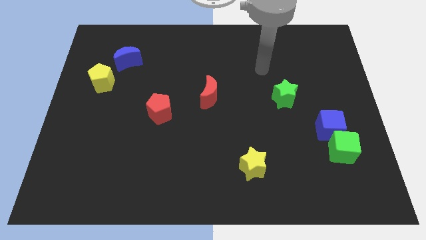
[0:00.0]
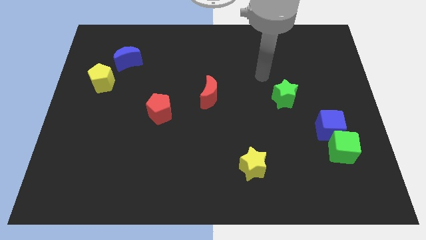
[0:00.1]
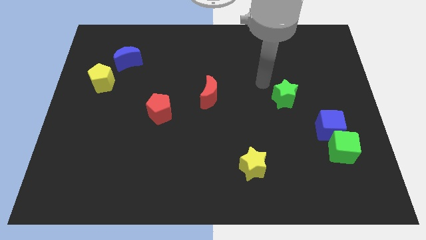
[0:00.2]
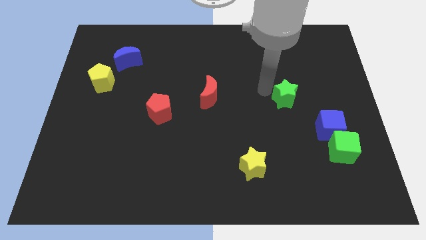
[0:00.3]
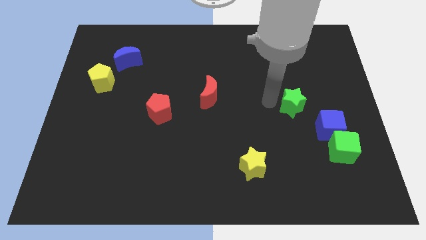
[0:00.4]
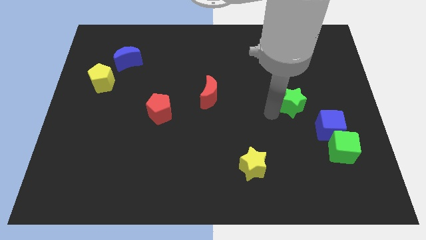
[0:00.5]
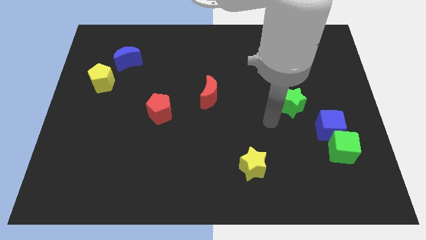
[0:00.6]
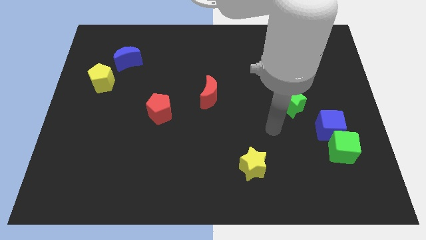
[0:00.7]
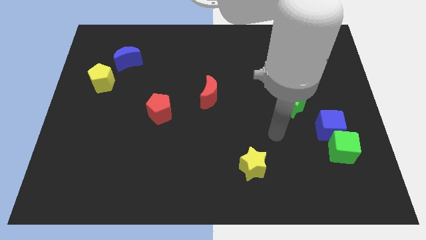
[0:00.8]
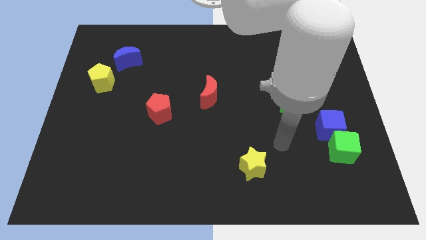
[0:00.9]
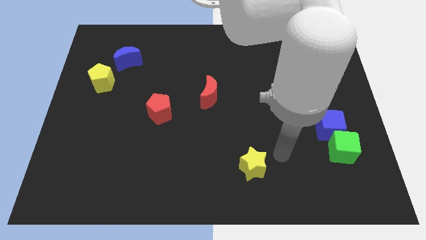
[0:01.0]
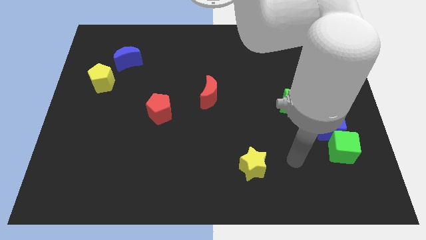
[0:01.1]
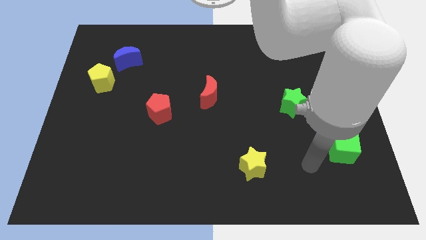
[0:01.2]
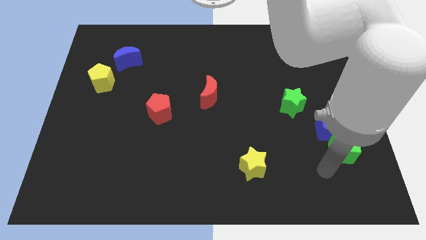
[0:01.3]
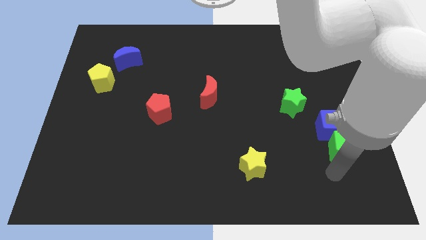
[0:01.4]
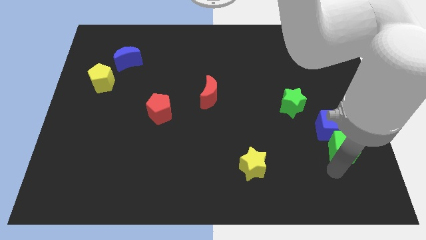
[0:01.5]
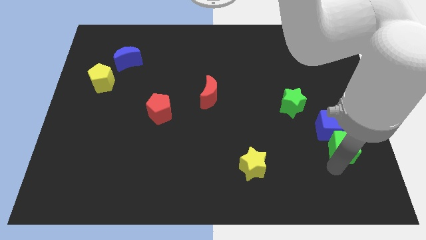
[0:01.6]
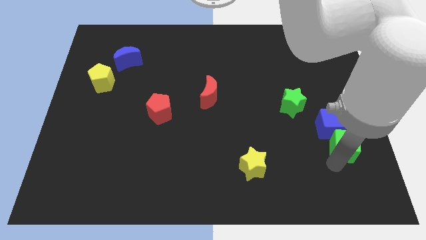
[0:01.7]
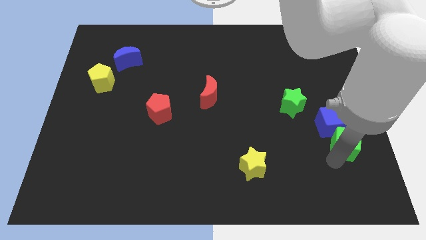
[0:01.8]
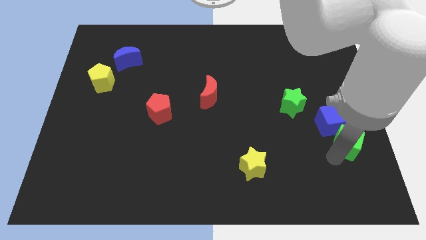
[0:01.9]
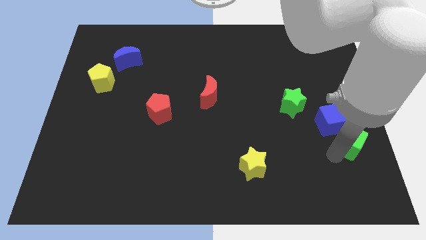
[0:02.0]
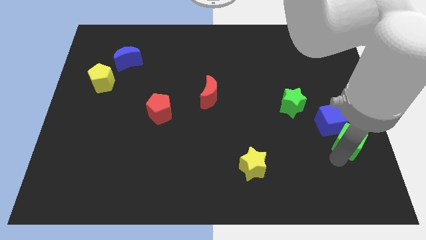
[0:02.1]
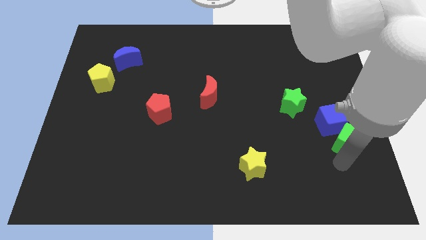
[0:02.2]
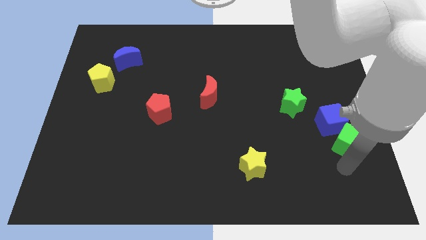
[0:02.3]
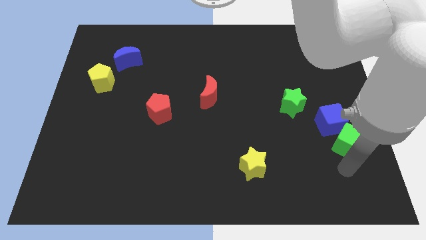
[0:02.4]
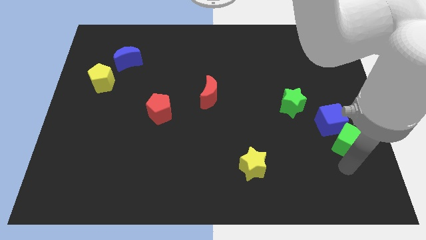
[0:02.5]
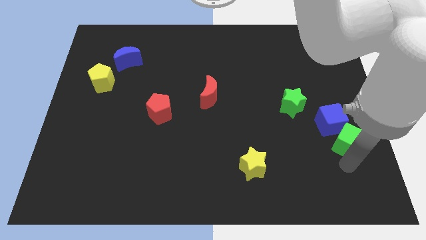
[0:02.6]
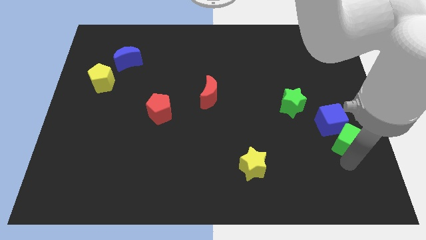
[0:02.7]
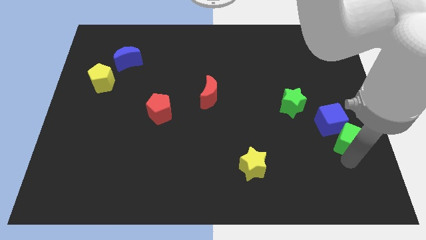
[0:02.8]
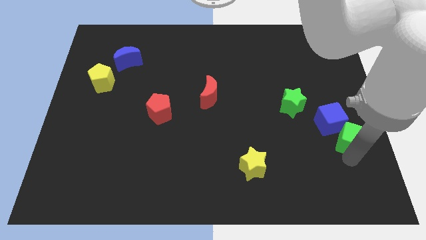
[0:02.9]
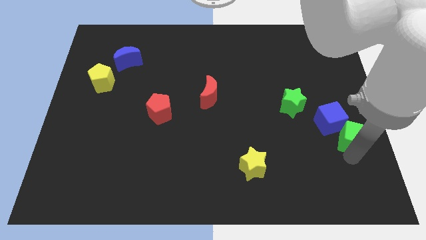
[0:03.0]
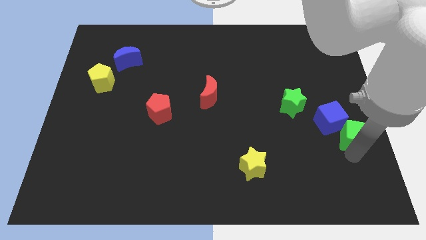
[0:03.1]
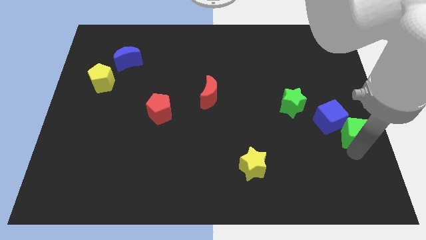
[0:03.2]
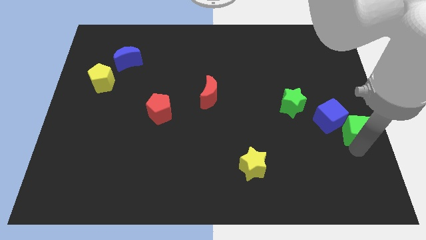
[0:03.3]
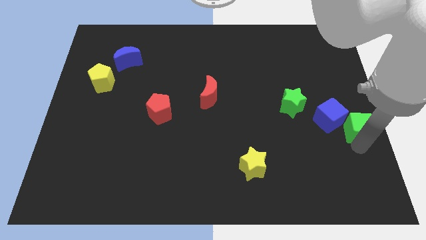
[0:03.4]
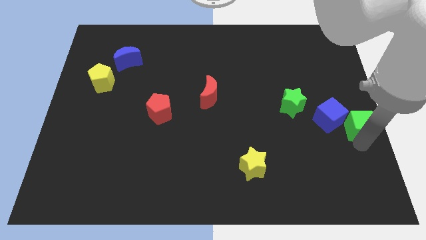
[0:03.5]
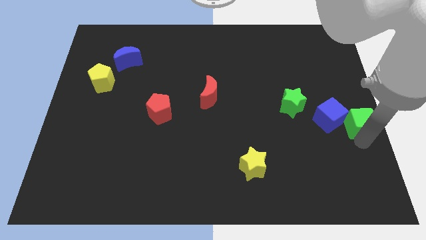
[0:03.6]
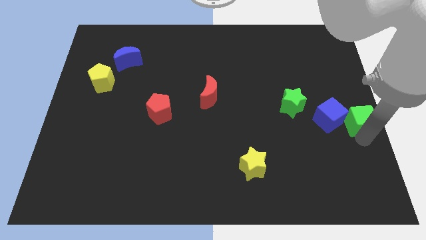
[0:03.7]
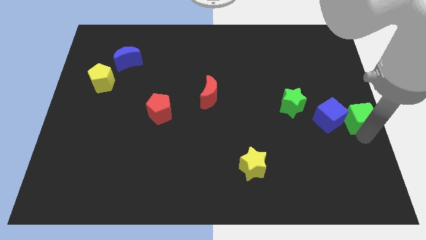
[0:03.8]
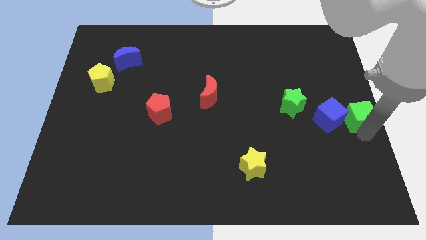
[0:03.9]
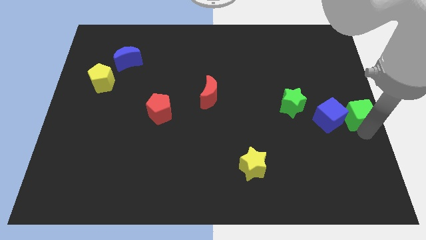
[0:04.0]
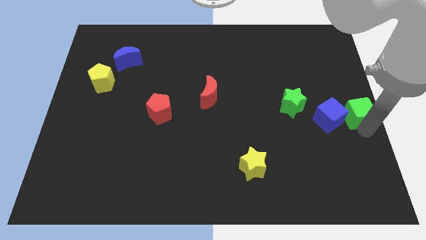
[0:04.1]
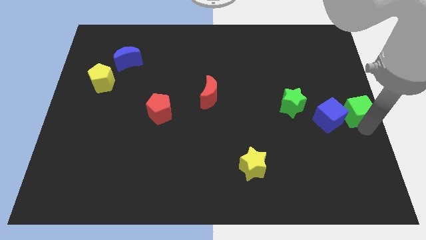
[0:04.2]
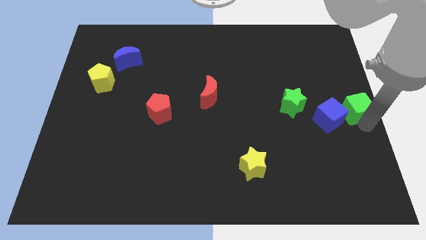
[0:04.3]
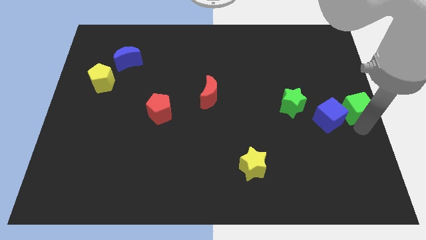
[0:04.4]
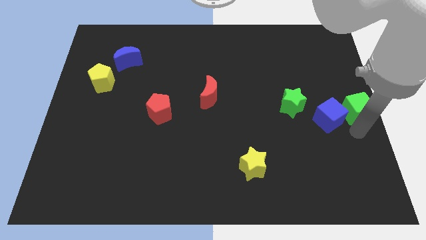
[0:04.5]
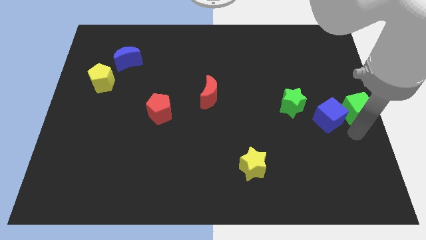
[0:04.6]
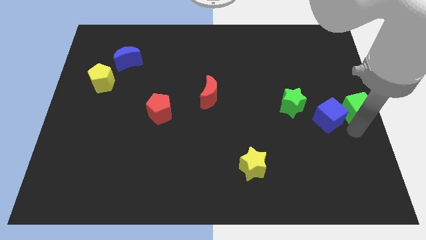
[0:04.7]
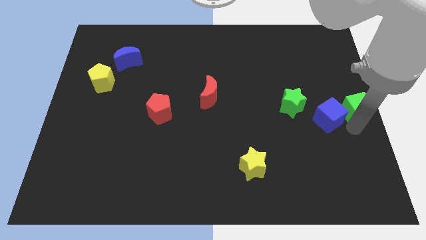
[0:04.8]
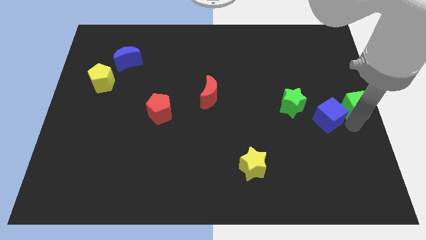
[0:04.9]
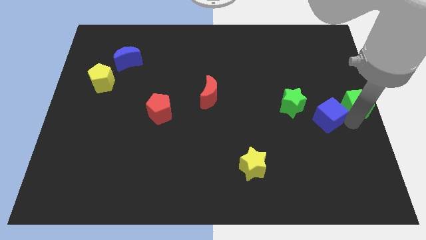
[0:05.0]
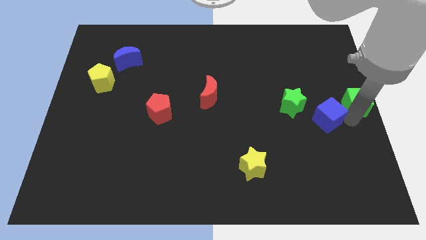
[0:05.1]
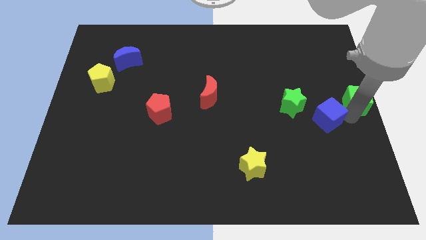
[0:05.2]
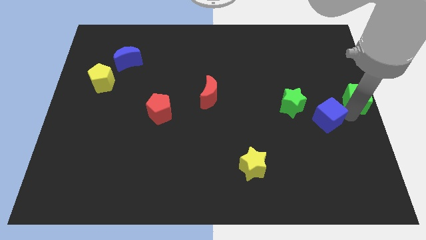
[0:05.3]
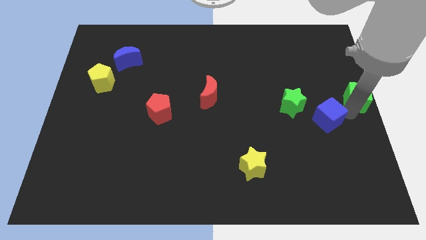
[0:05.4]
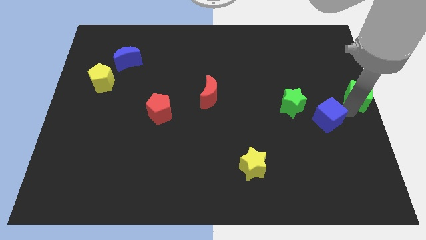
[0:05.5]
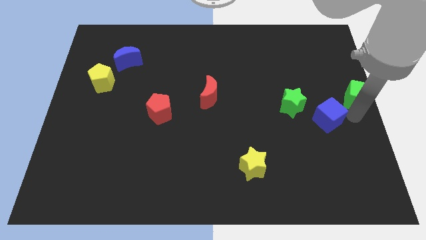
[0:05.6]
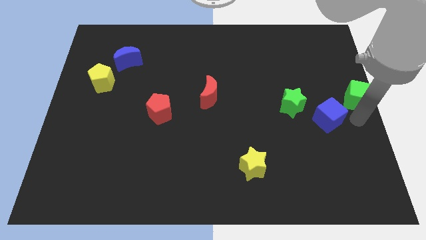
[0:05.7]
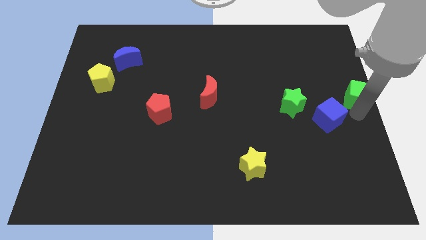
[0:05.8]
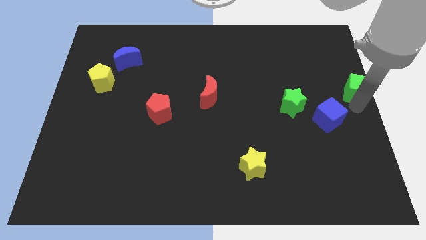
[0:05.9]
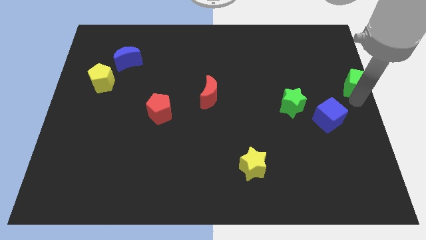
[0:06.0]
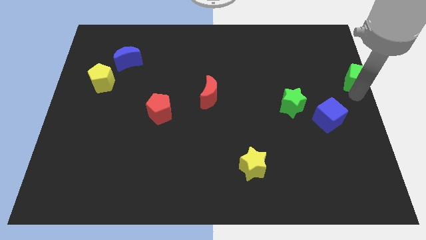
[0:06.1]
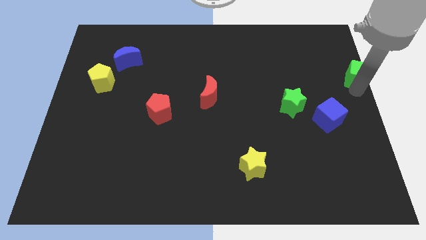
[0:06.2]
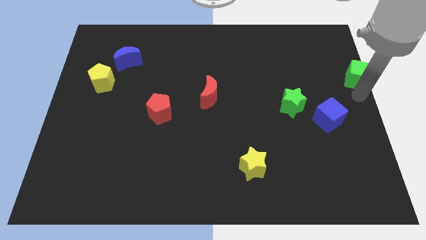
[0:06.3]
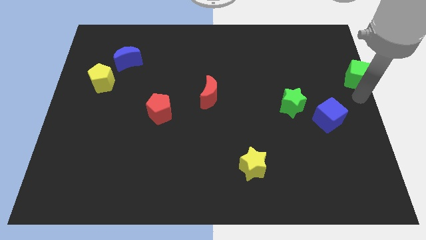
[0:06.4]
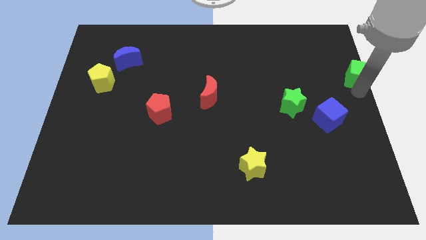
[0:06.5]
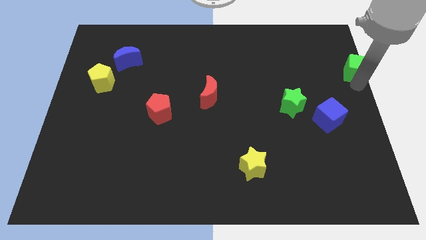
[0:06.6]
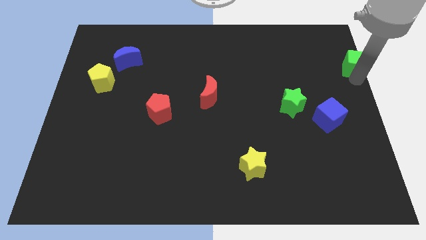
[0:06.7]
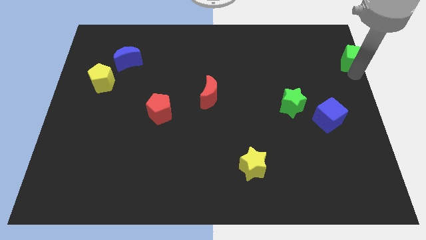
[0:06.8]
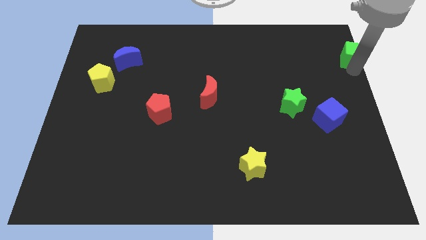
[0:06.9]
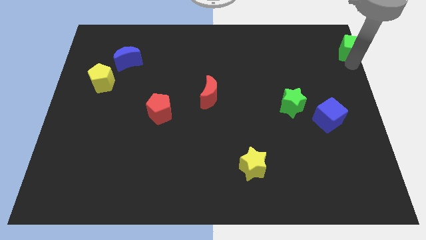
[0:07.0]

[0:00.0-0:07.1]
move the green cube to the top right of the board
